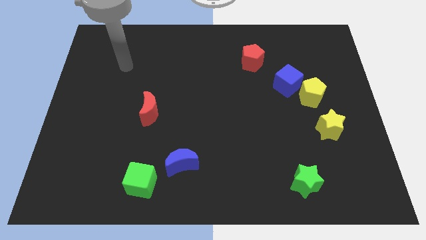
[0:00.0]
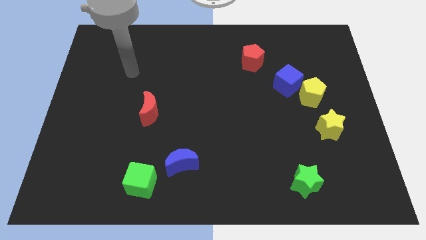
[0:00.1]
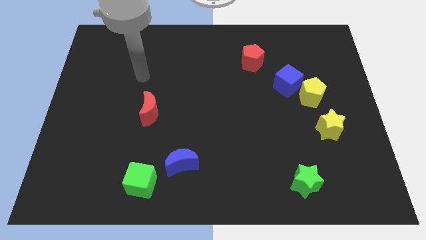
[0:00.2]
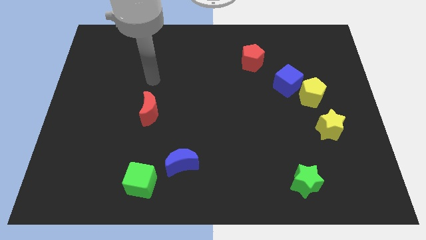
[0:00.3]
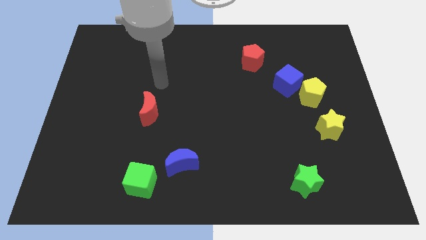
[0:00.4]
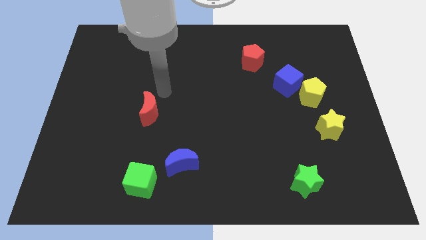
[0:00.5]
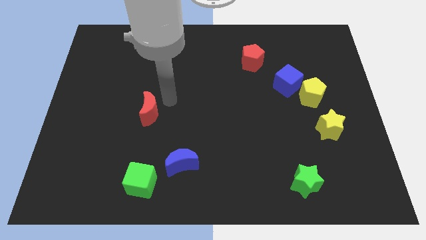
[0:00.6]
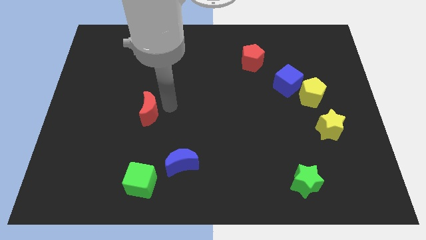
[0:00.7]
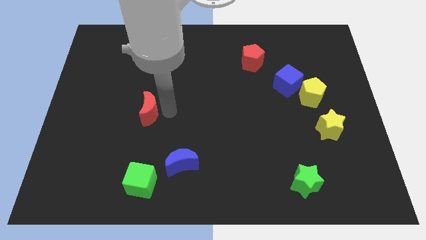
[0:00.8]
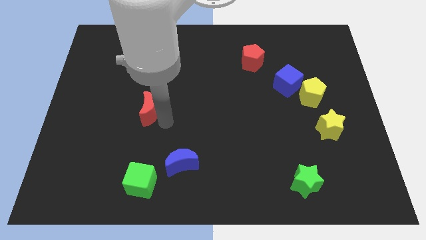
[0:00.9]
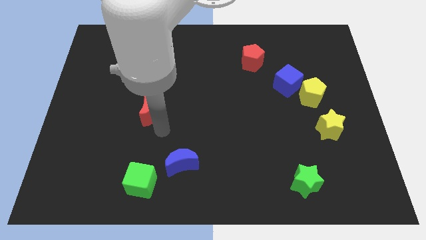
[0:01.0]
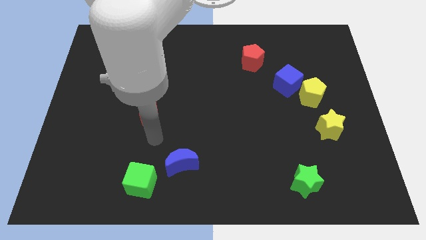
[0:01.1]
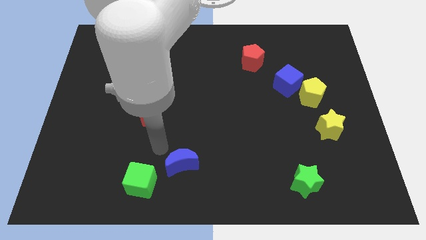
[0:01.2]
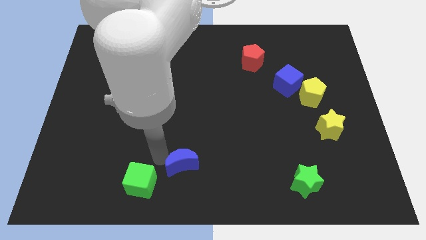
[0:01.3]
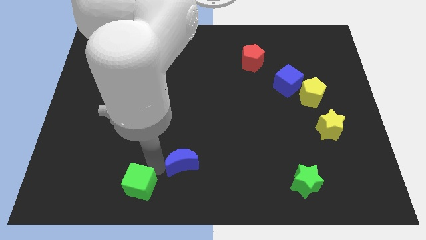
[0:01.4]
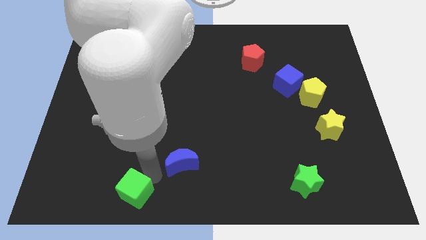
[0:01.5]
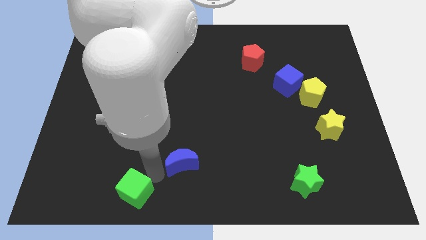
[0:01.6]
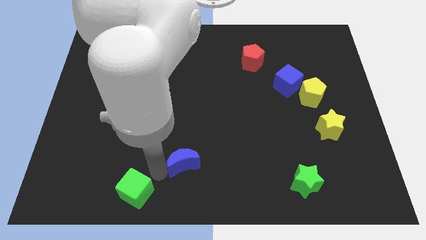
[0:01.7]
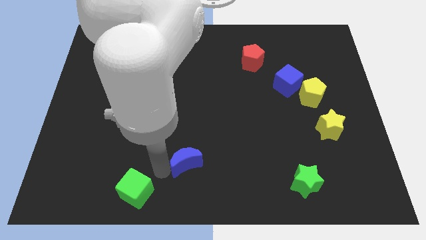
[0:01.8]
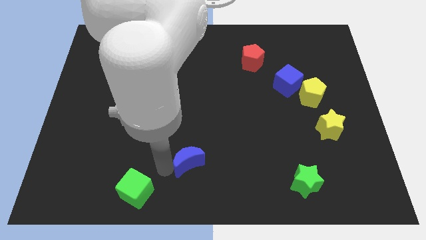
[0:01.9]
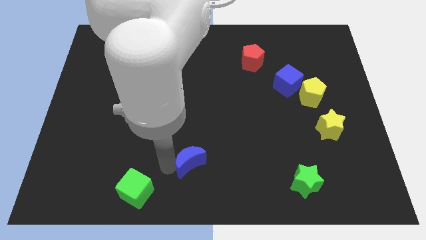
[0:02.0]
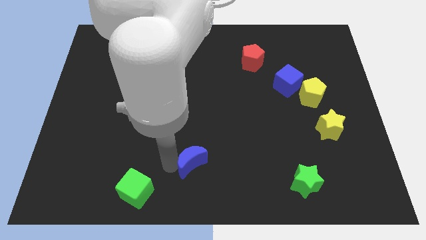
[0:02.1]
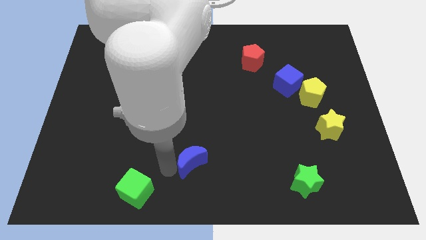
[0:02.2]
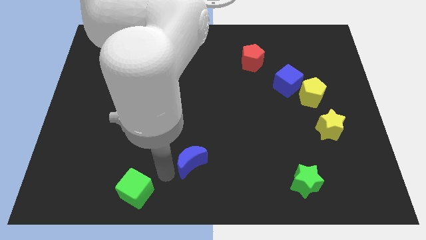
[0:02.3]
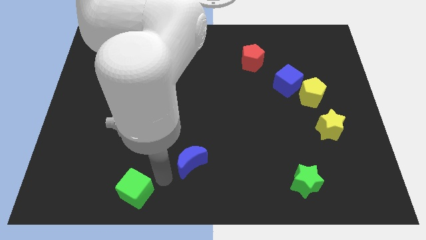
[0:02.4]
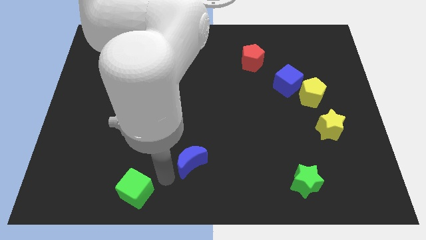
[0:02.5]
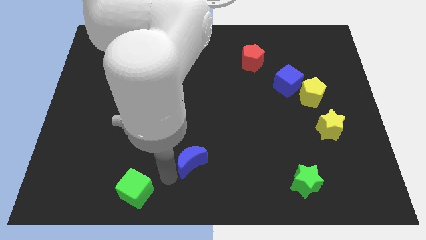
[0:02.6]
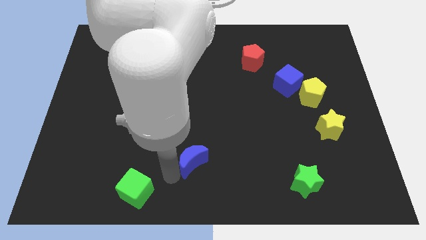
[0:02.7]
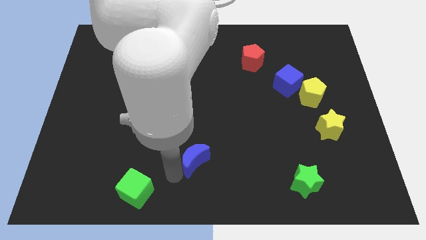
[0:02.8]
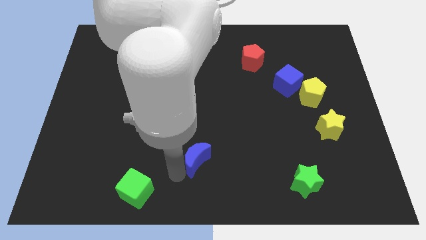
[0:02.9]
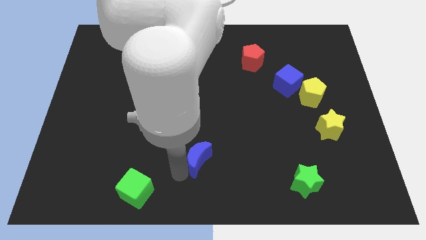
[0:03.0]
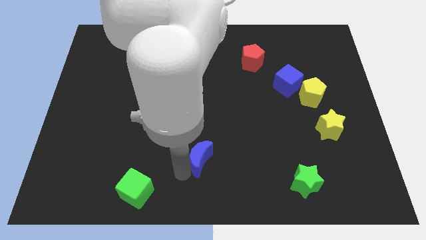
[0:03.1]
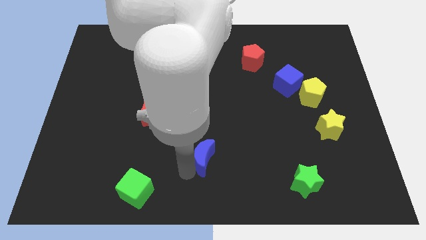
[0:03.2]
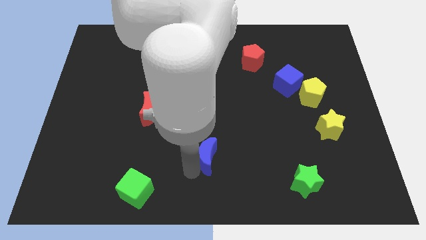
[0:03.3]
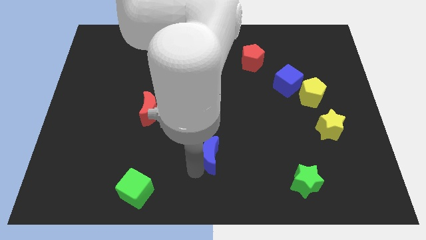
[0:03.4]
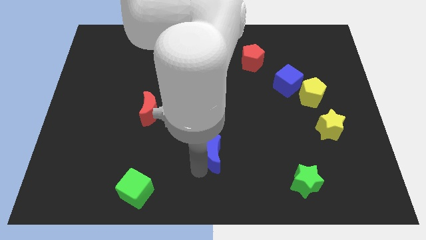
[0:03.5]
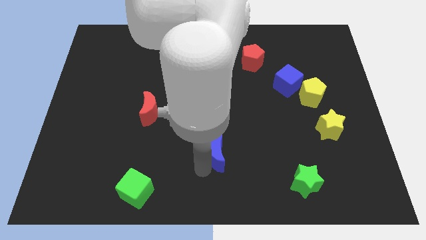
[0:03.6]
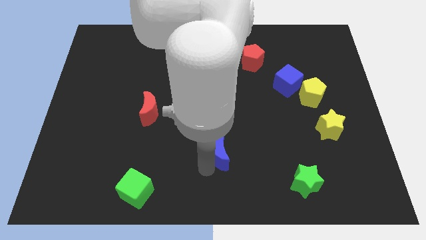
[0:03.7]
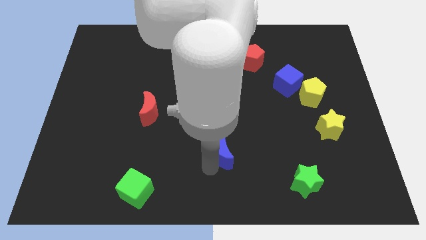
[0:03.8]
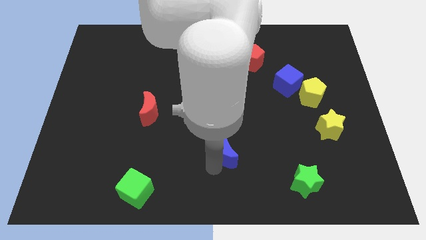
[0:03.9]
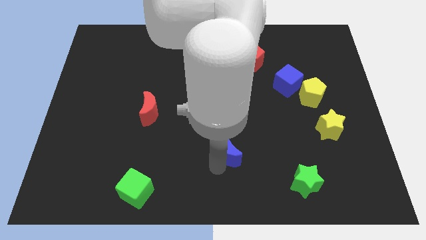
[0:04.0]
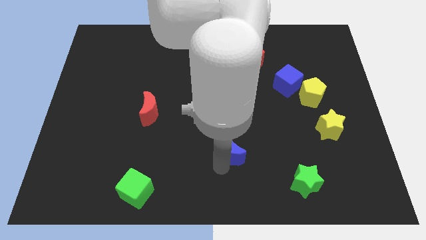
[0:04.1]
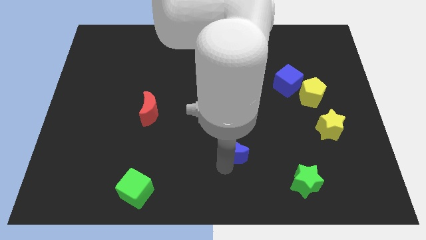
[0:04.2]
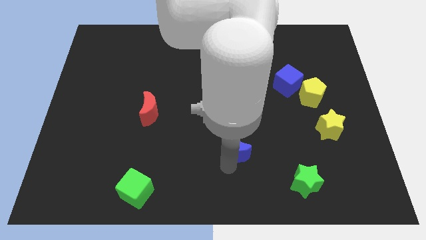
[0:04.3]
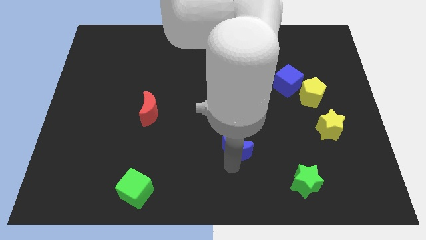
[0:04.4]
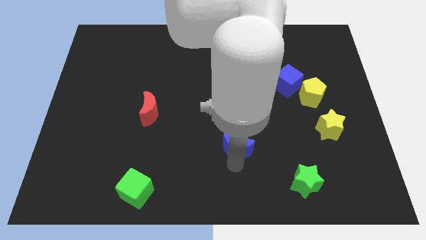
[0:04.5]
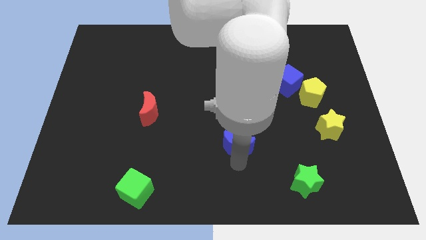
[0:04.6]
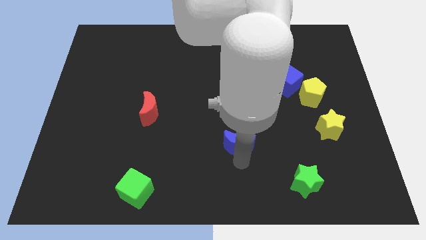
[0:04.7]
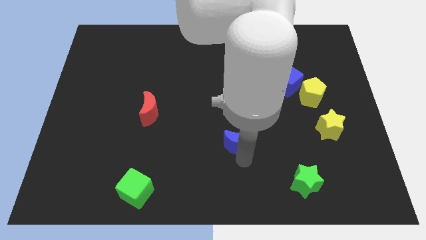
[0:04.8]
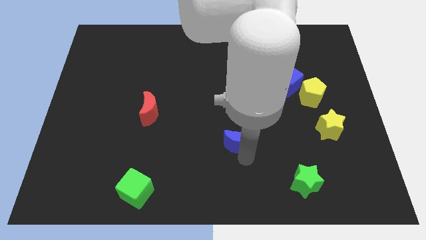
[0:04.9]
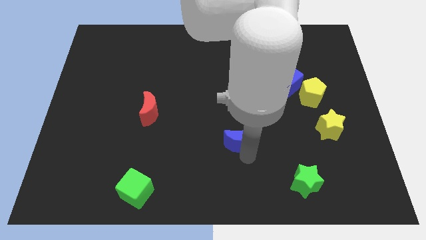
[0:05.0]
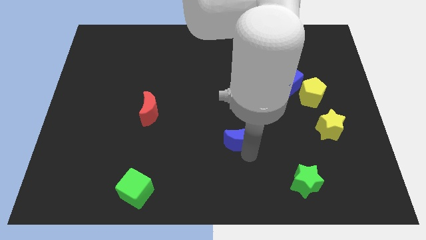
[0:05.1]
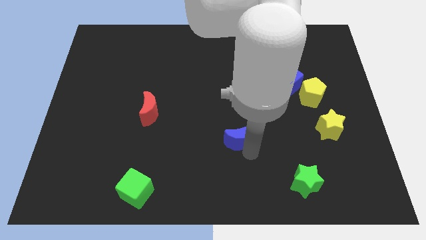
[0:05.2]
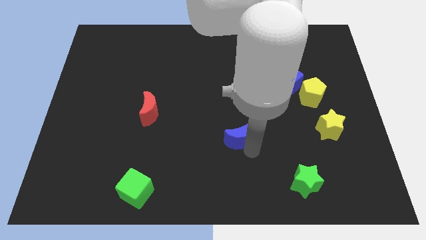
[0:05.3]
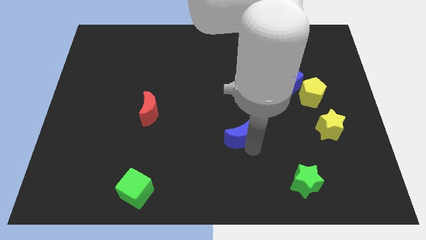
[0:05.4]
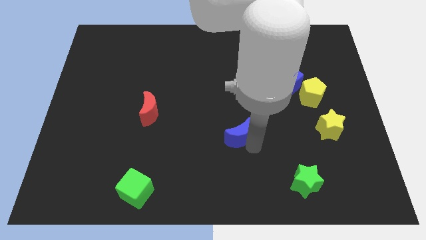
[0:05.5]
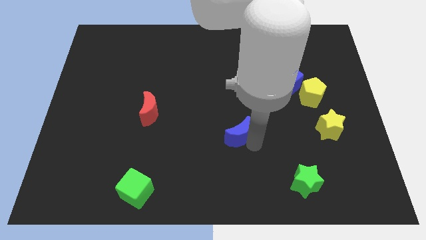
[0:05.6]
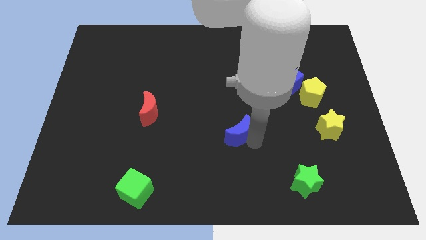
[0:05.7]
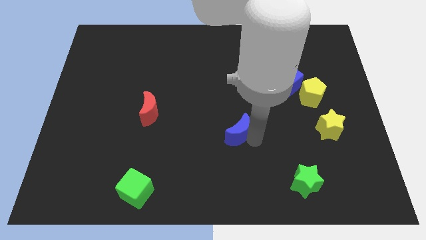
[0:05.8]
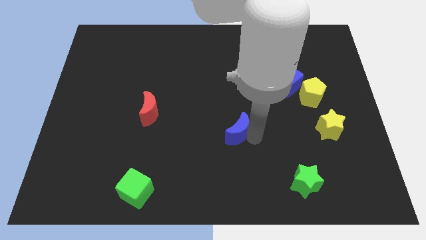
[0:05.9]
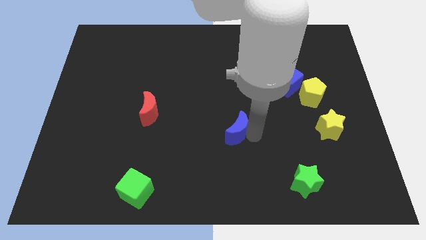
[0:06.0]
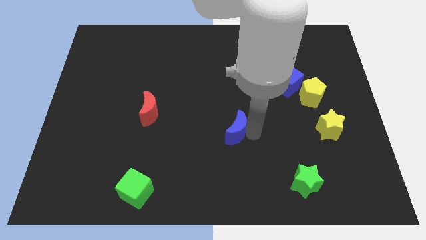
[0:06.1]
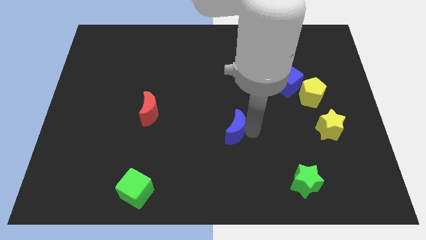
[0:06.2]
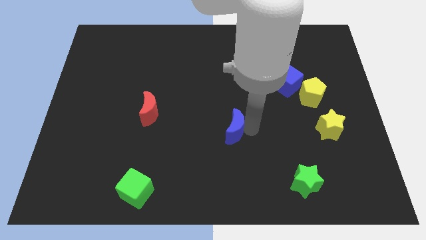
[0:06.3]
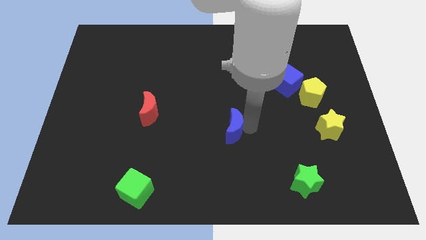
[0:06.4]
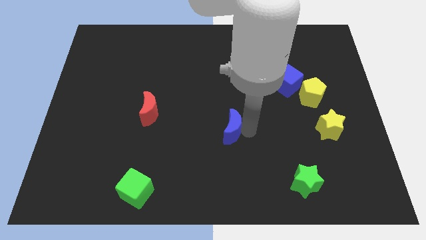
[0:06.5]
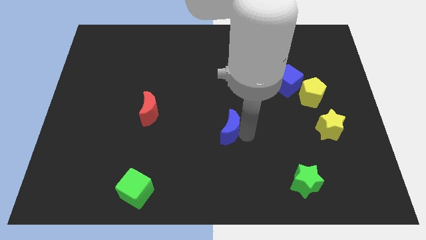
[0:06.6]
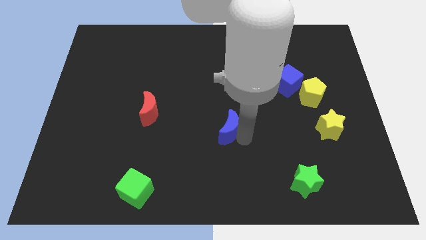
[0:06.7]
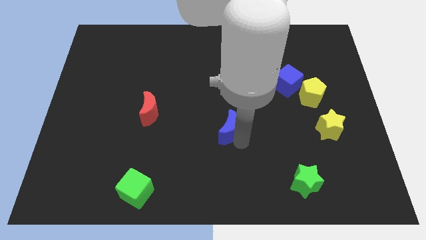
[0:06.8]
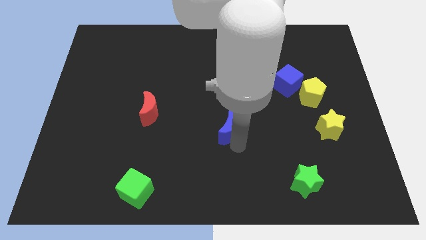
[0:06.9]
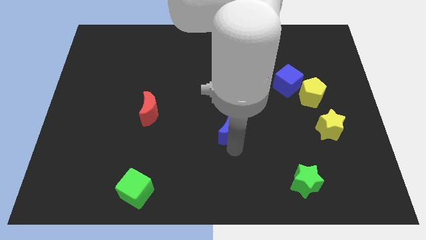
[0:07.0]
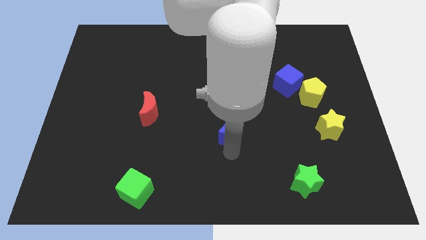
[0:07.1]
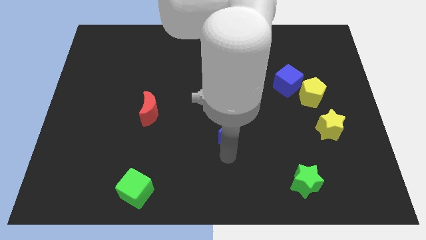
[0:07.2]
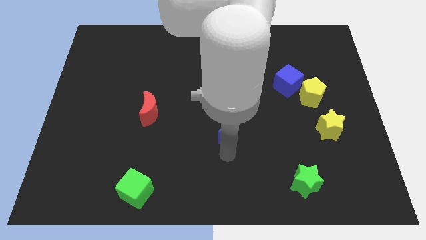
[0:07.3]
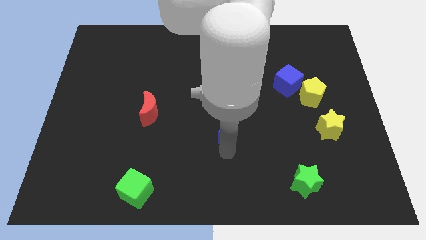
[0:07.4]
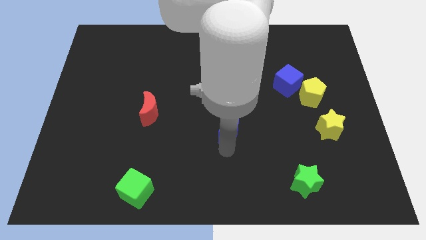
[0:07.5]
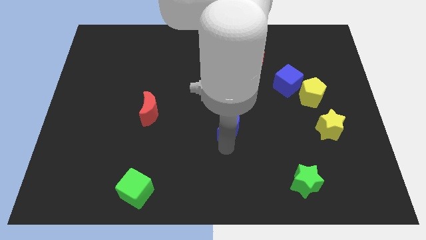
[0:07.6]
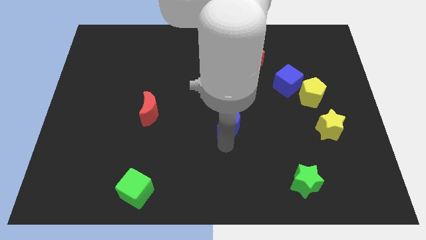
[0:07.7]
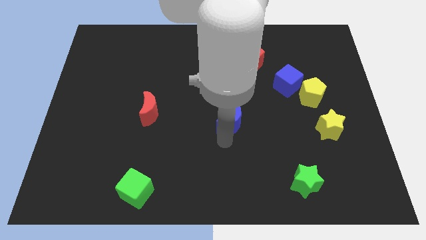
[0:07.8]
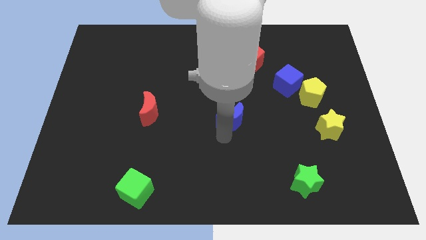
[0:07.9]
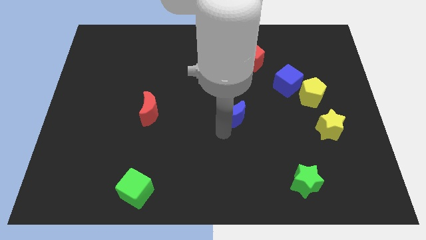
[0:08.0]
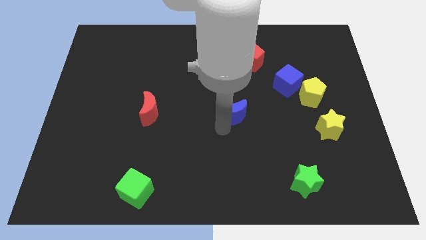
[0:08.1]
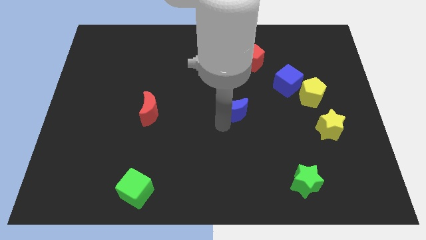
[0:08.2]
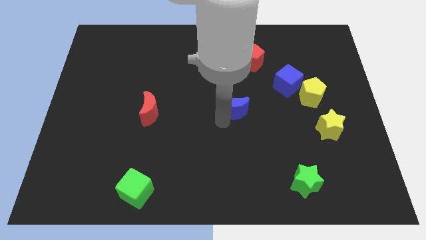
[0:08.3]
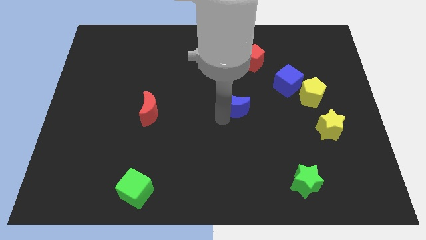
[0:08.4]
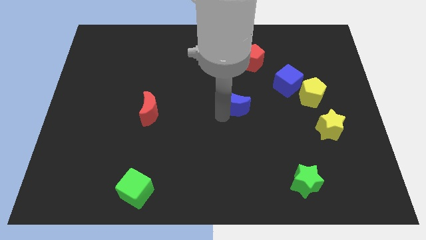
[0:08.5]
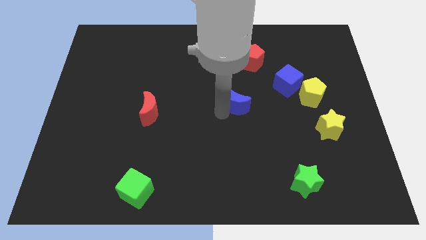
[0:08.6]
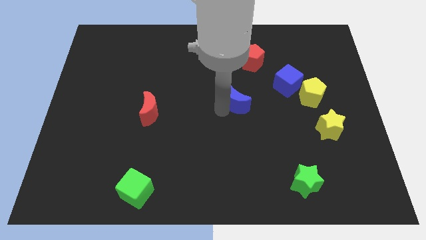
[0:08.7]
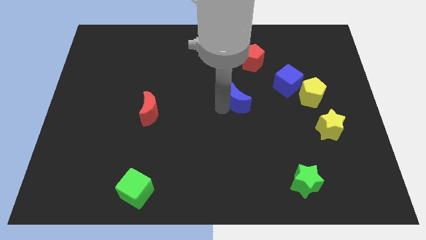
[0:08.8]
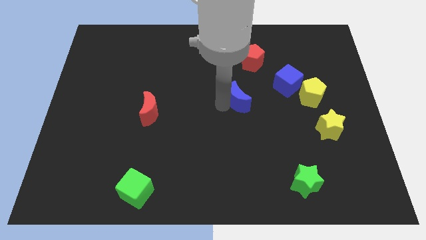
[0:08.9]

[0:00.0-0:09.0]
slide the blue moon to the bottom side of the red pentagon
